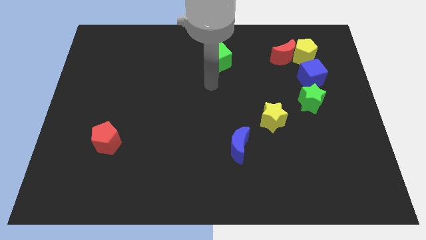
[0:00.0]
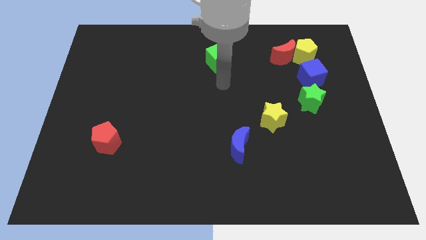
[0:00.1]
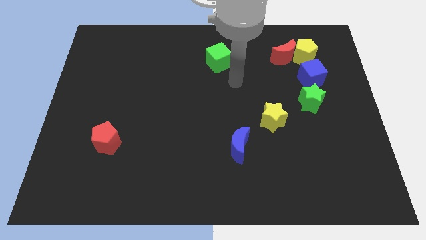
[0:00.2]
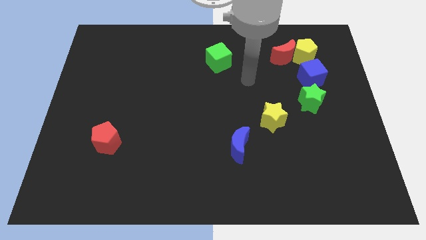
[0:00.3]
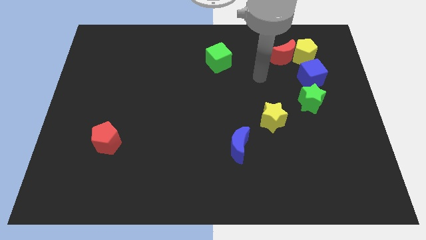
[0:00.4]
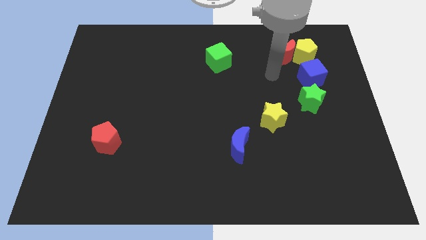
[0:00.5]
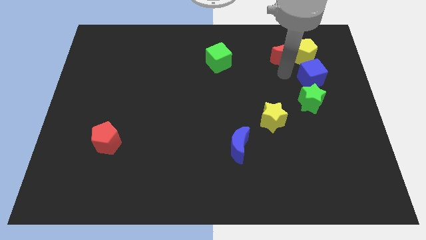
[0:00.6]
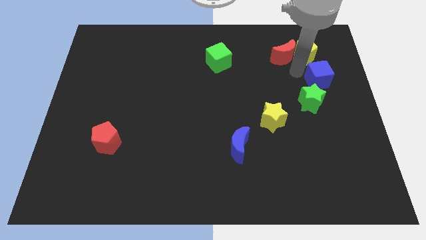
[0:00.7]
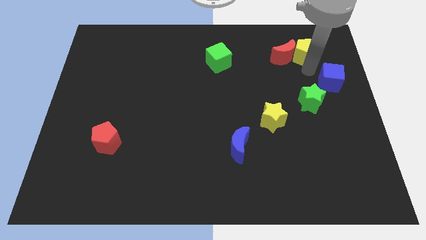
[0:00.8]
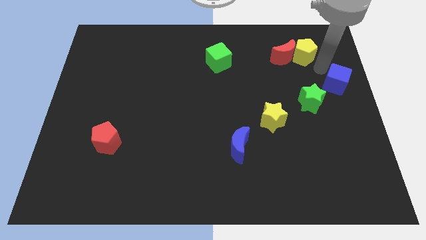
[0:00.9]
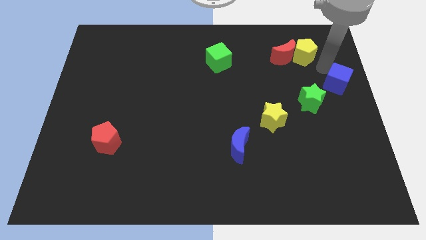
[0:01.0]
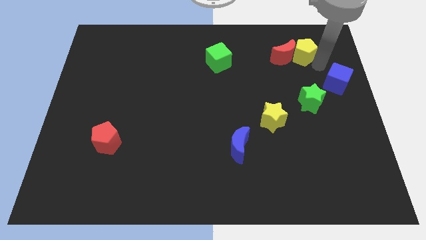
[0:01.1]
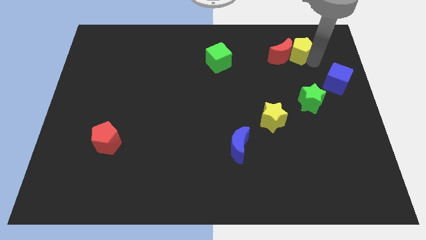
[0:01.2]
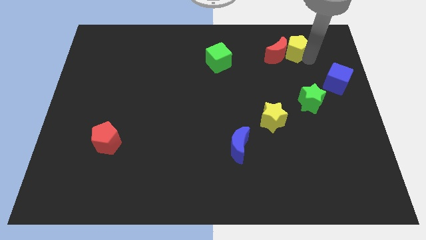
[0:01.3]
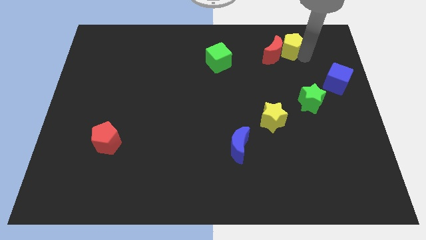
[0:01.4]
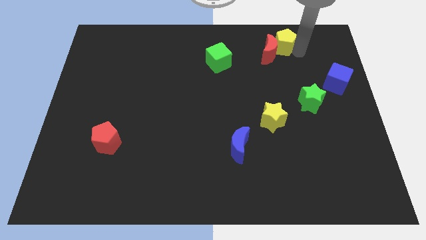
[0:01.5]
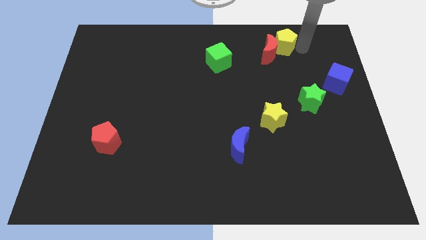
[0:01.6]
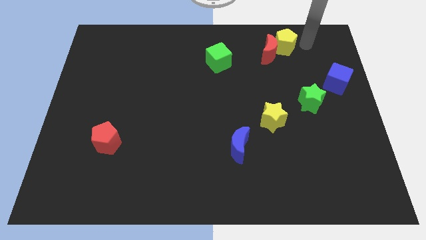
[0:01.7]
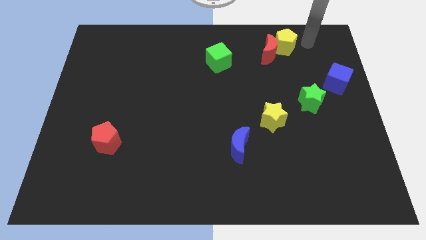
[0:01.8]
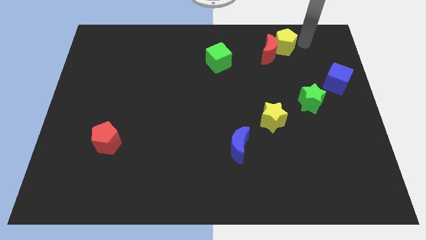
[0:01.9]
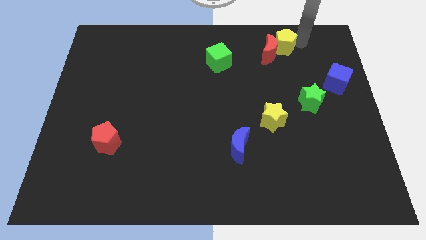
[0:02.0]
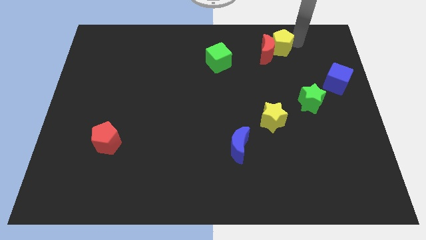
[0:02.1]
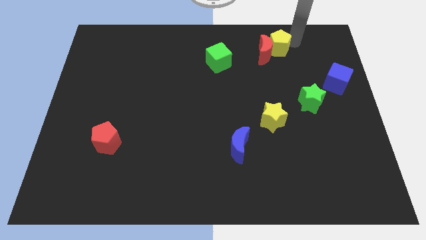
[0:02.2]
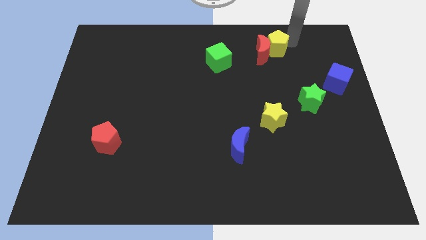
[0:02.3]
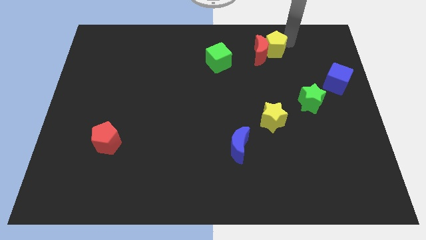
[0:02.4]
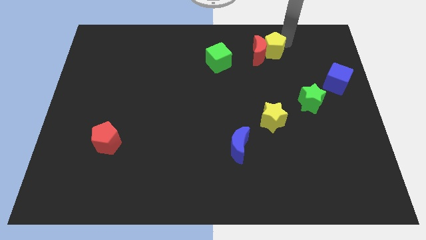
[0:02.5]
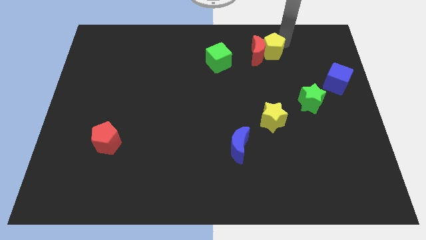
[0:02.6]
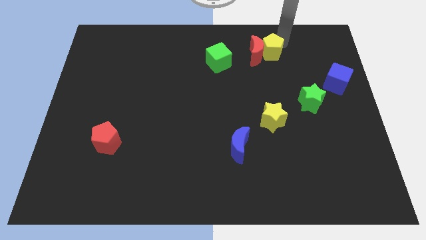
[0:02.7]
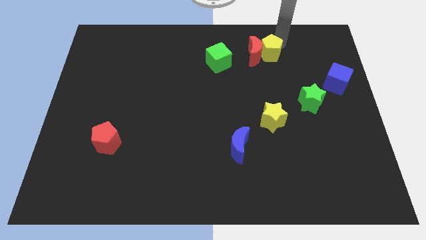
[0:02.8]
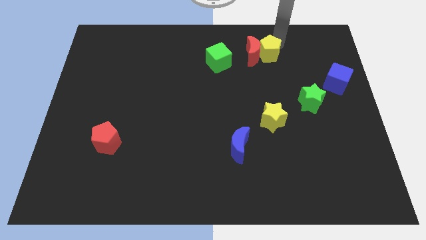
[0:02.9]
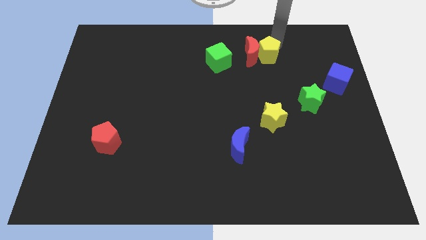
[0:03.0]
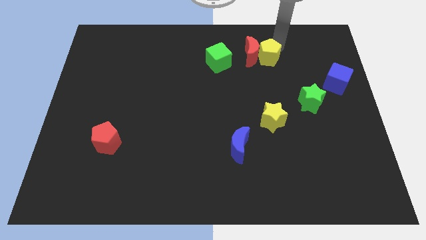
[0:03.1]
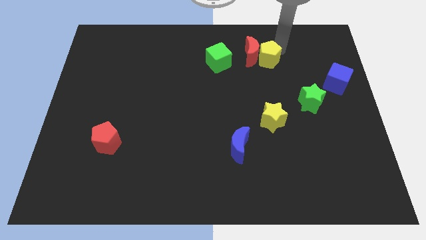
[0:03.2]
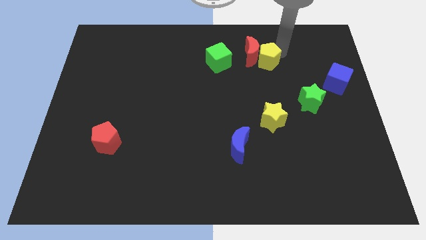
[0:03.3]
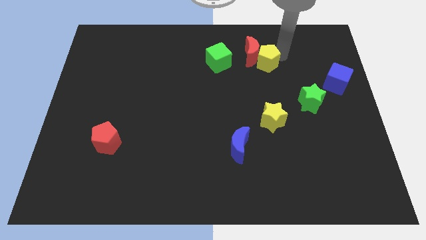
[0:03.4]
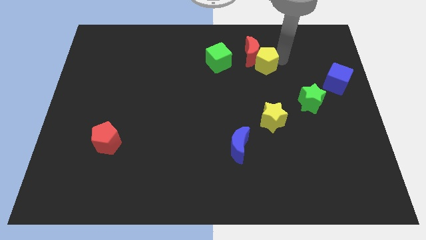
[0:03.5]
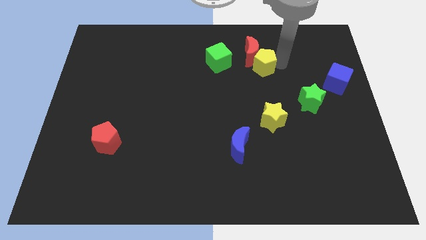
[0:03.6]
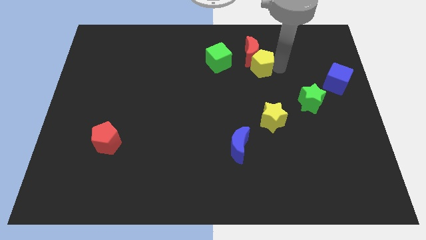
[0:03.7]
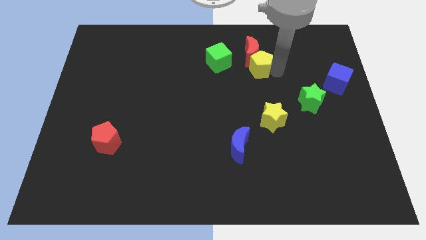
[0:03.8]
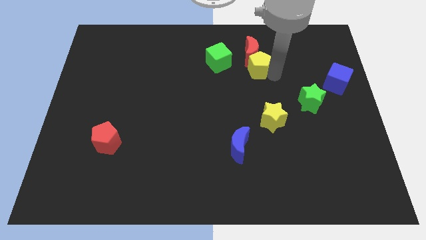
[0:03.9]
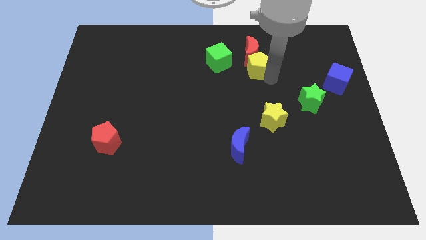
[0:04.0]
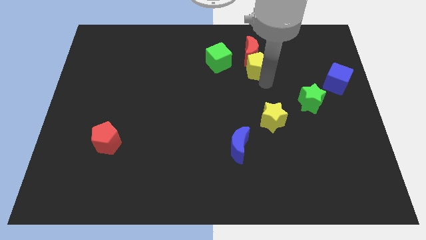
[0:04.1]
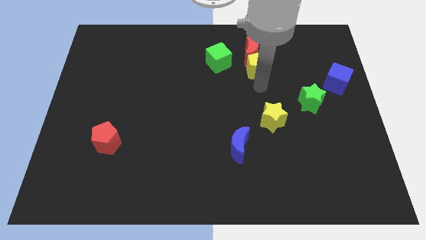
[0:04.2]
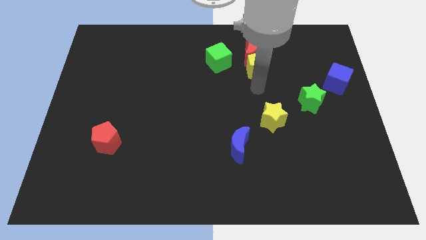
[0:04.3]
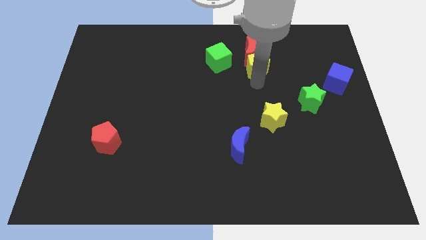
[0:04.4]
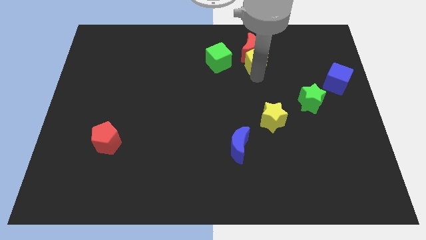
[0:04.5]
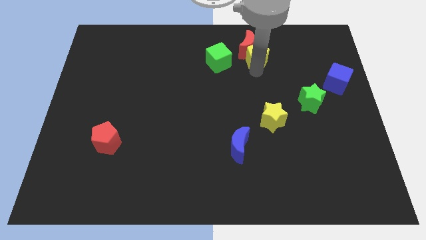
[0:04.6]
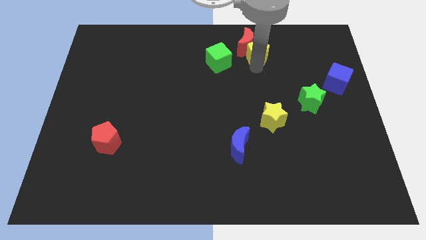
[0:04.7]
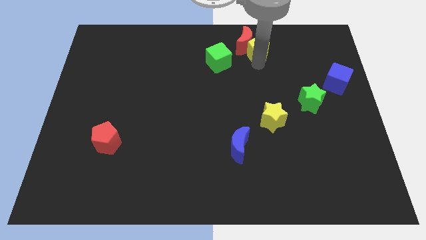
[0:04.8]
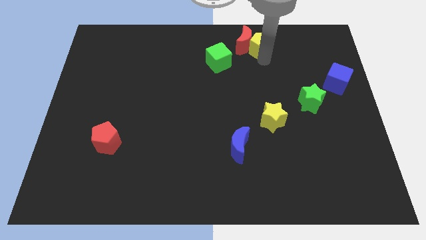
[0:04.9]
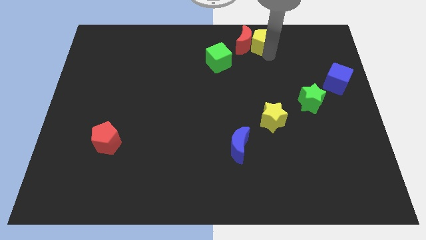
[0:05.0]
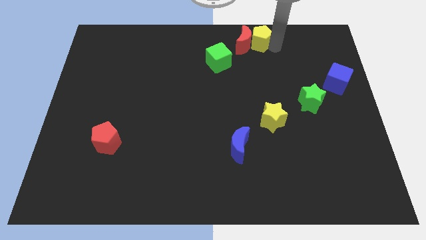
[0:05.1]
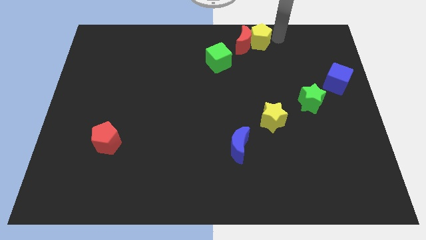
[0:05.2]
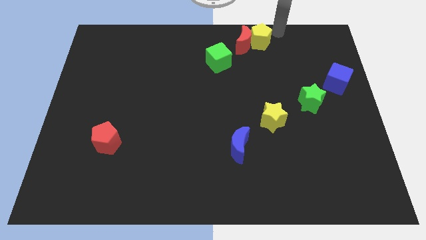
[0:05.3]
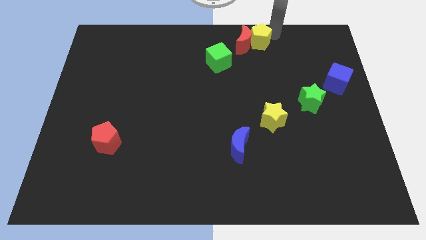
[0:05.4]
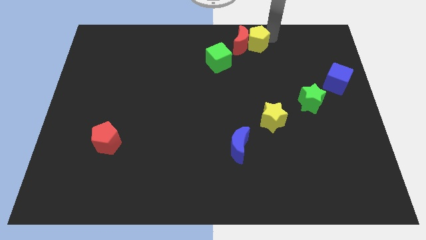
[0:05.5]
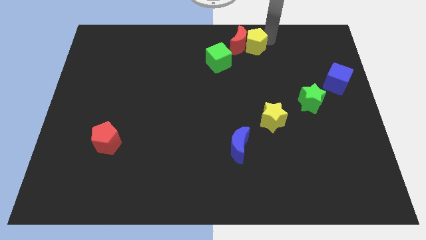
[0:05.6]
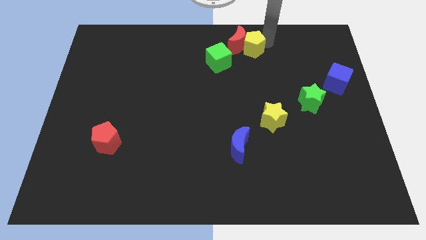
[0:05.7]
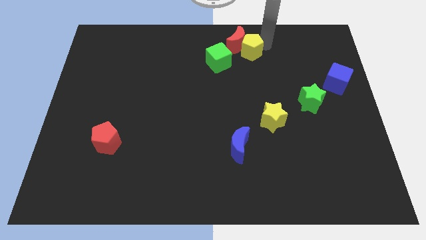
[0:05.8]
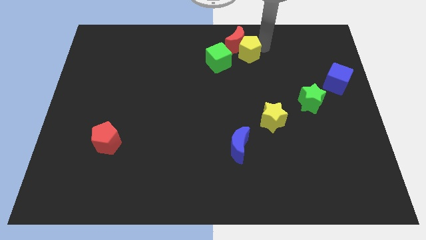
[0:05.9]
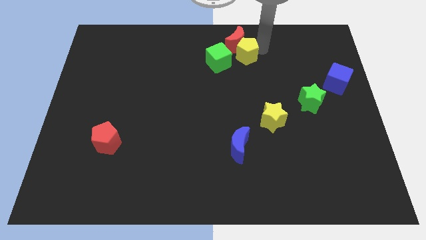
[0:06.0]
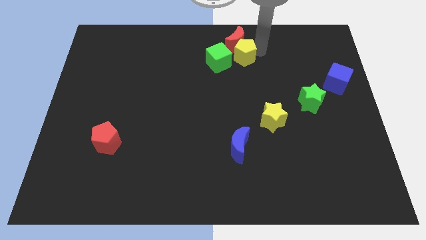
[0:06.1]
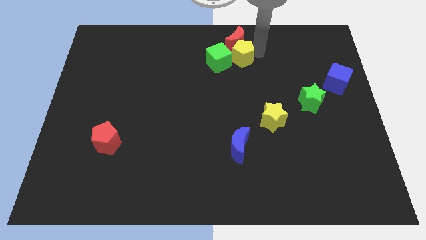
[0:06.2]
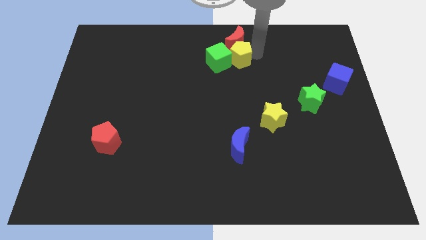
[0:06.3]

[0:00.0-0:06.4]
push the yellow pentagon close to the green cube

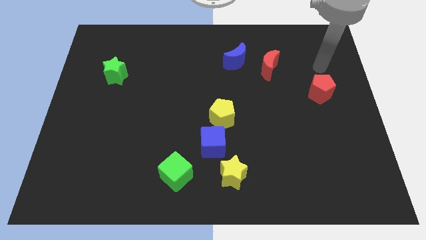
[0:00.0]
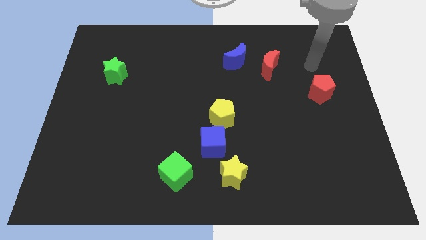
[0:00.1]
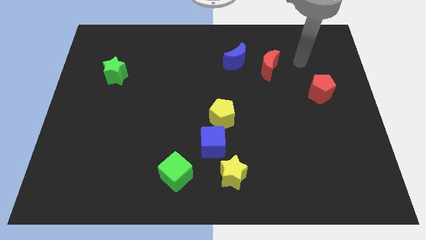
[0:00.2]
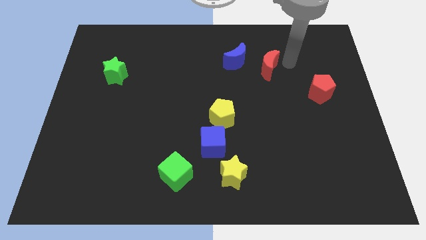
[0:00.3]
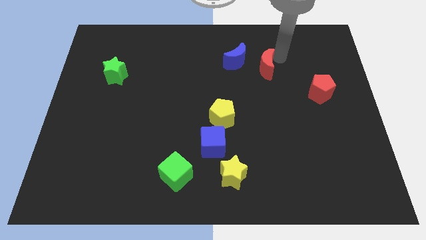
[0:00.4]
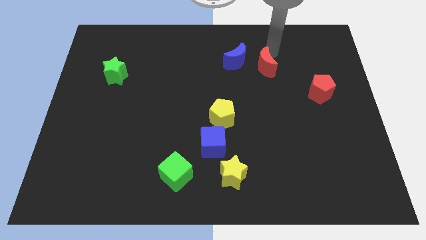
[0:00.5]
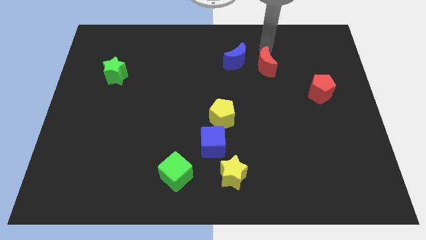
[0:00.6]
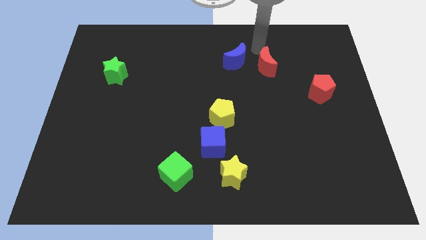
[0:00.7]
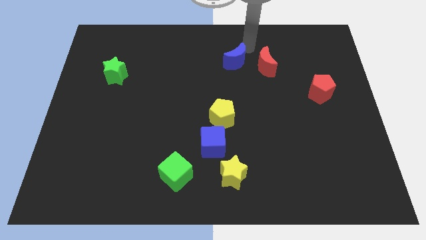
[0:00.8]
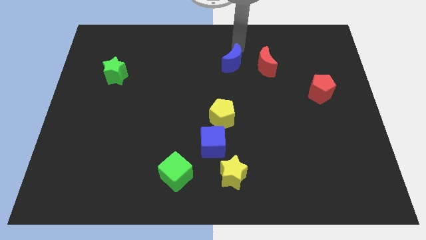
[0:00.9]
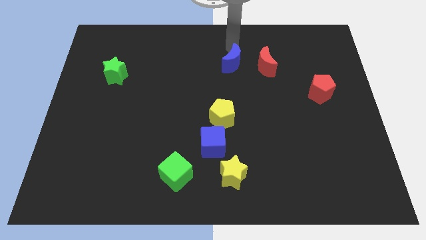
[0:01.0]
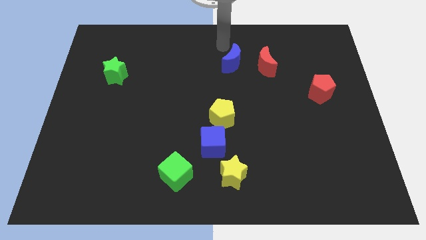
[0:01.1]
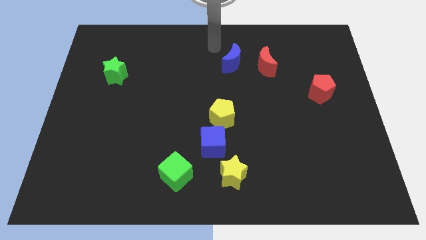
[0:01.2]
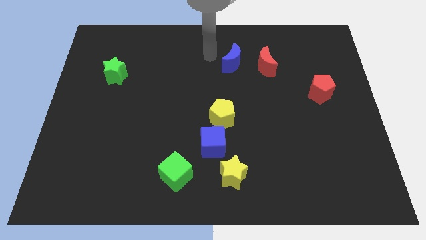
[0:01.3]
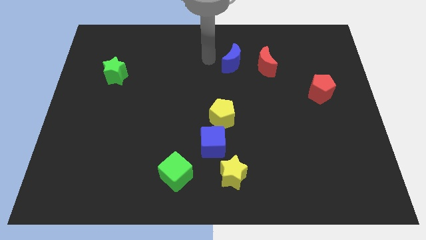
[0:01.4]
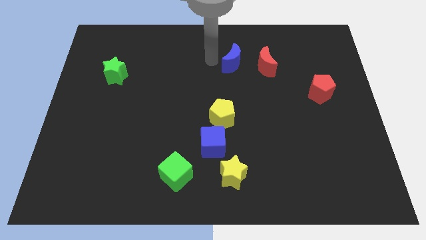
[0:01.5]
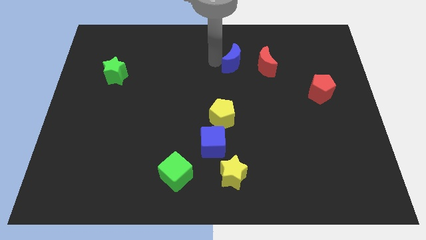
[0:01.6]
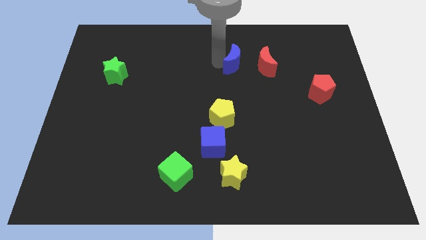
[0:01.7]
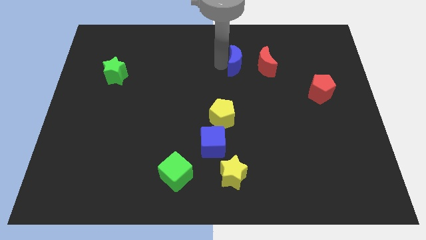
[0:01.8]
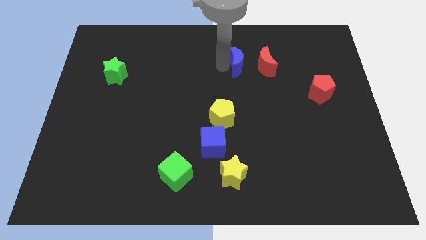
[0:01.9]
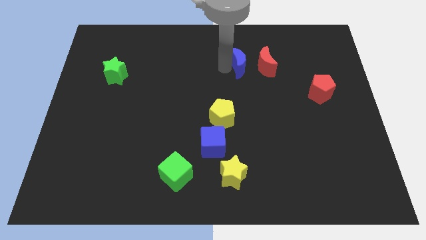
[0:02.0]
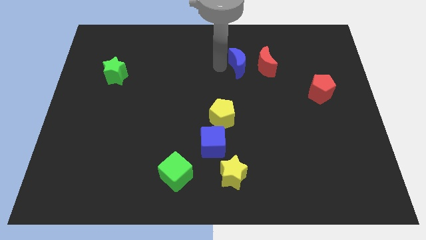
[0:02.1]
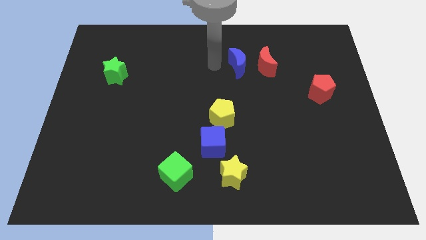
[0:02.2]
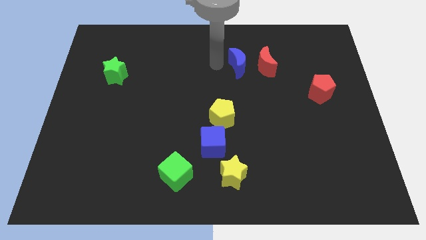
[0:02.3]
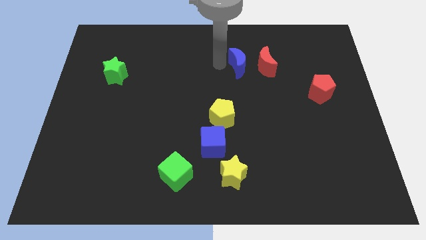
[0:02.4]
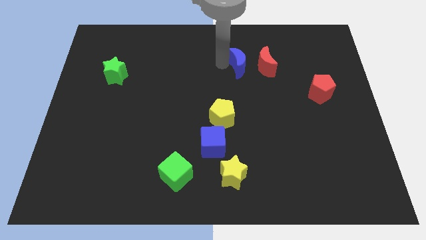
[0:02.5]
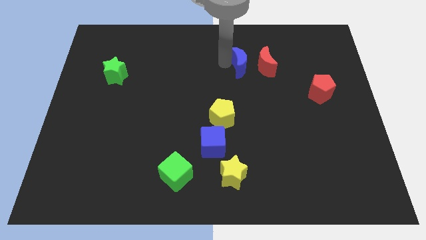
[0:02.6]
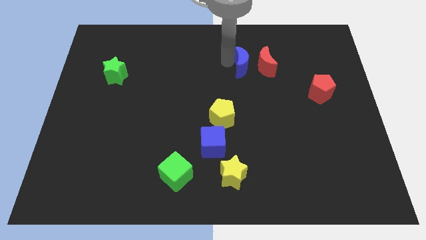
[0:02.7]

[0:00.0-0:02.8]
put the blue moon close to the red moon
